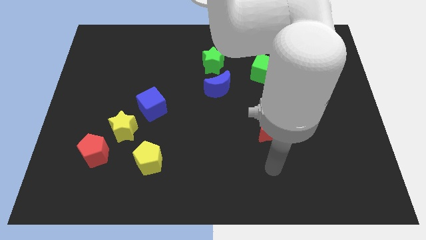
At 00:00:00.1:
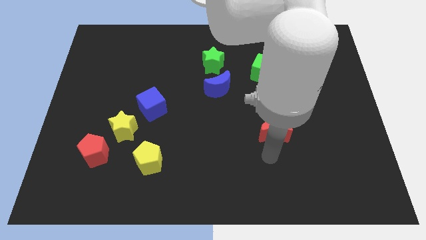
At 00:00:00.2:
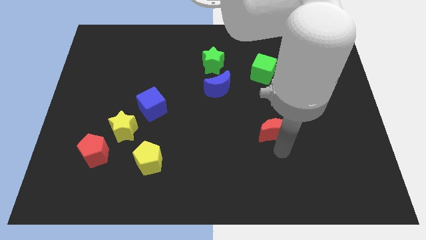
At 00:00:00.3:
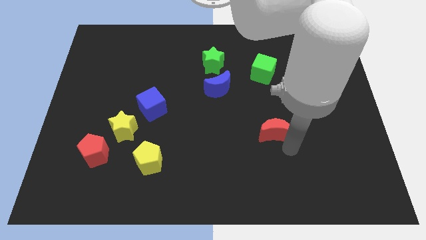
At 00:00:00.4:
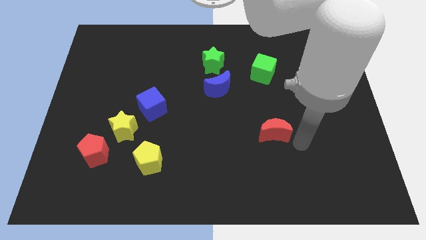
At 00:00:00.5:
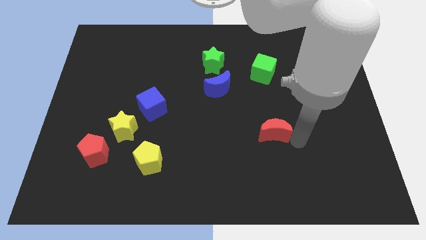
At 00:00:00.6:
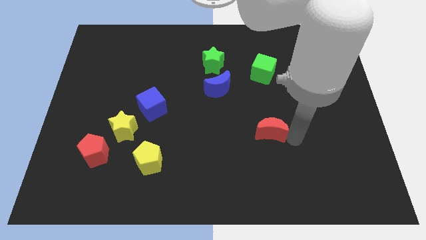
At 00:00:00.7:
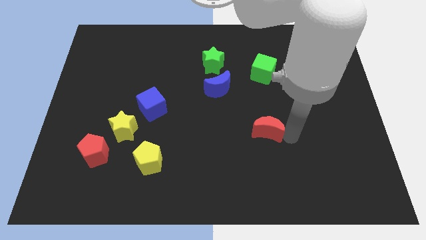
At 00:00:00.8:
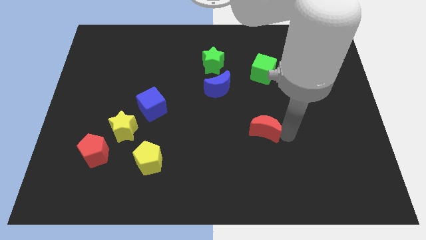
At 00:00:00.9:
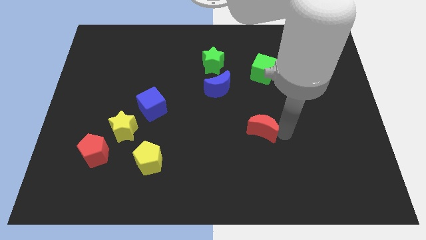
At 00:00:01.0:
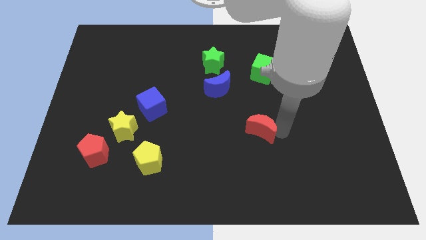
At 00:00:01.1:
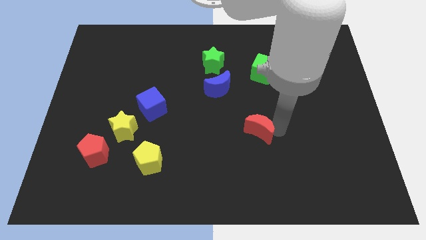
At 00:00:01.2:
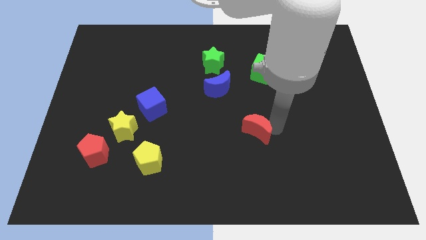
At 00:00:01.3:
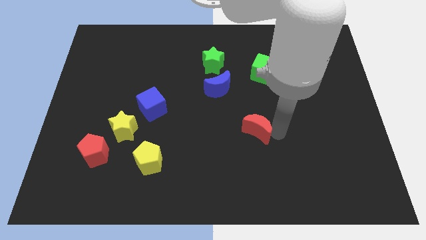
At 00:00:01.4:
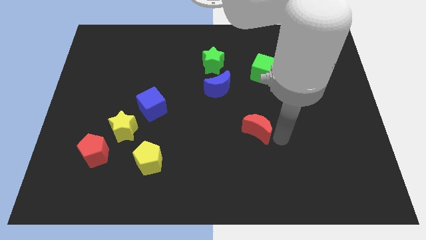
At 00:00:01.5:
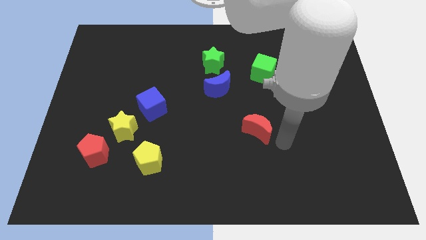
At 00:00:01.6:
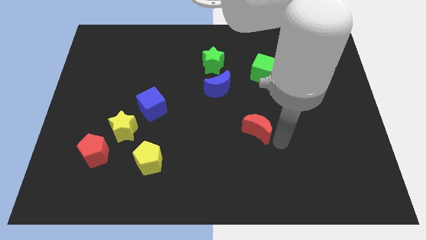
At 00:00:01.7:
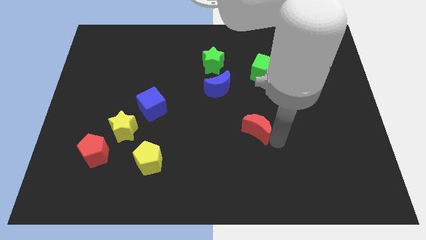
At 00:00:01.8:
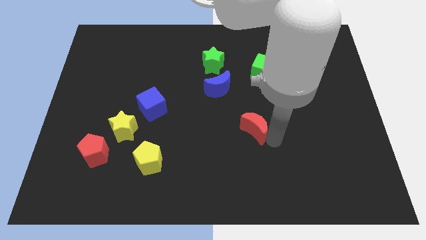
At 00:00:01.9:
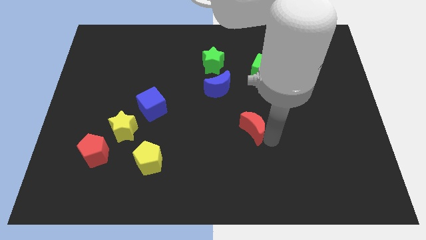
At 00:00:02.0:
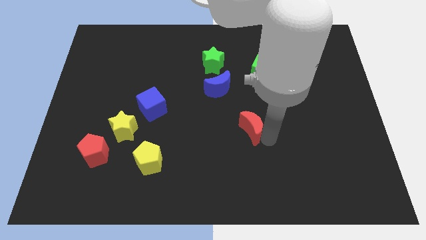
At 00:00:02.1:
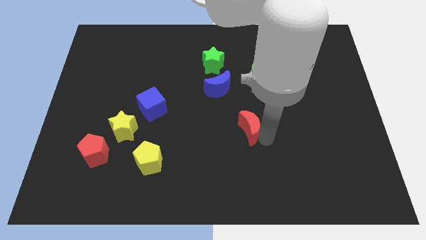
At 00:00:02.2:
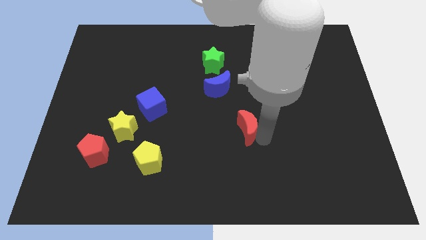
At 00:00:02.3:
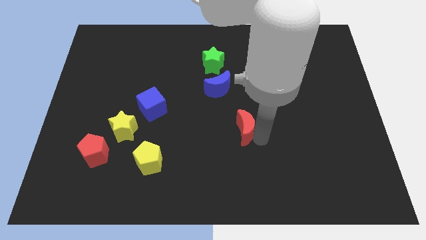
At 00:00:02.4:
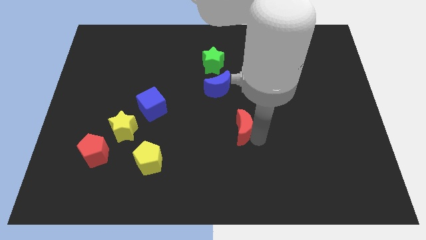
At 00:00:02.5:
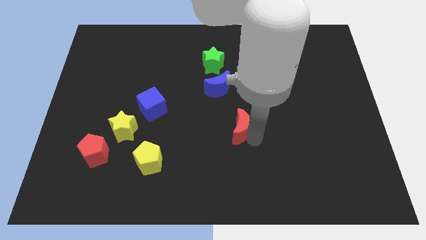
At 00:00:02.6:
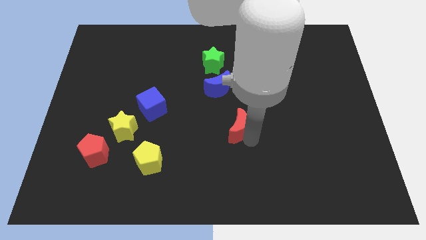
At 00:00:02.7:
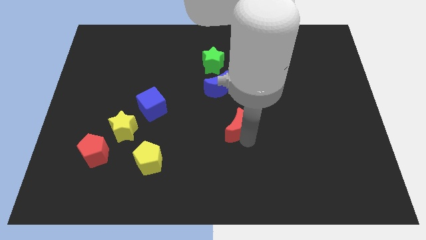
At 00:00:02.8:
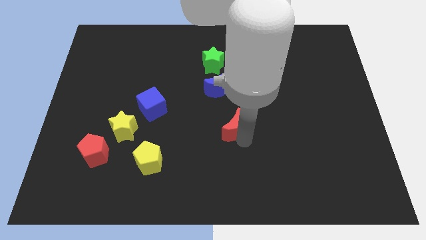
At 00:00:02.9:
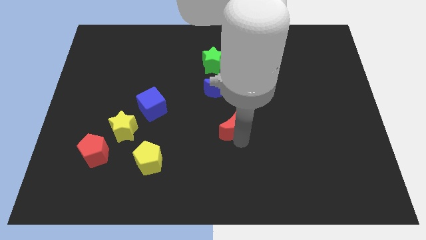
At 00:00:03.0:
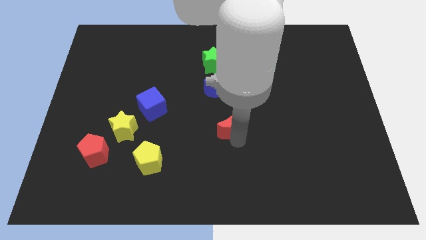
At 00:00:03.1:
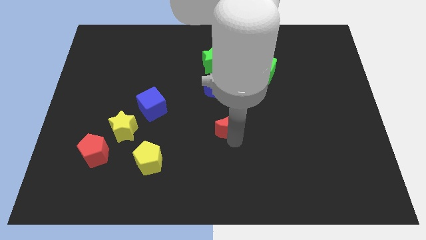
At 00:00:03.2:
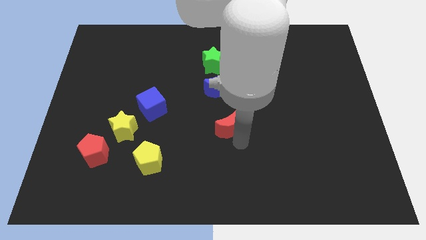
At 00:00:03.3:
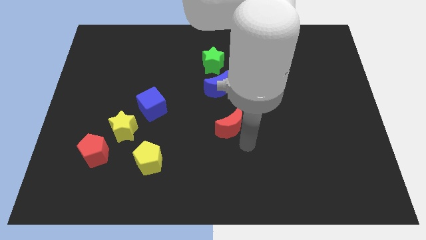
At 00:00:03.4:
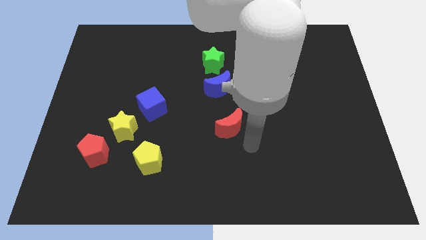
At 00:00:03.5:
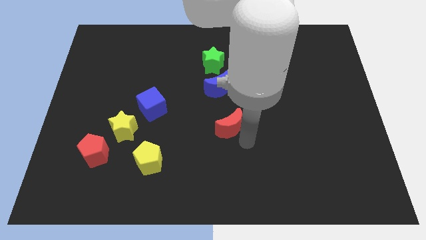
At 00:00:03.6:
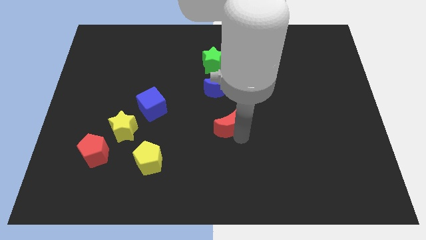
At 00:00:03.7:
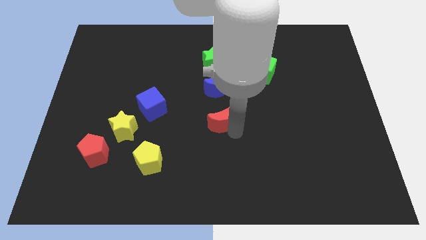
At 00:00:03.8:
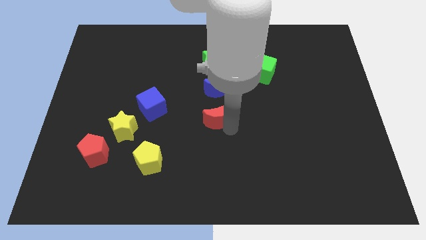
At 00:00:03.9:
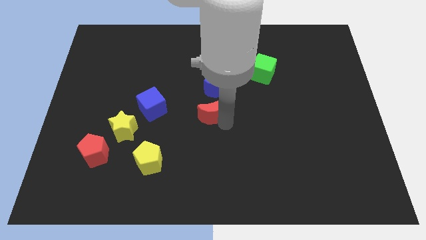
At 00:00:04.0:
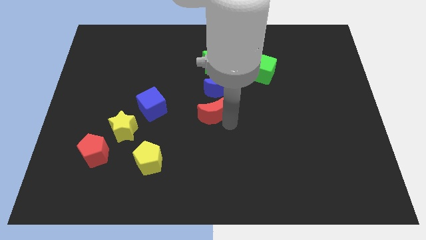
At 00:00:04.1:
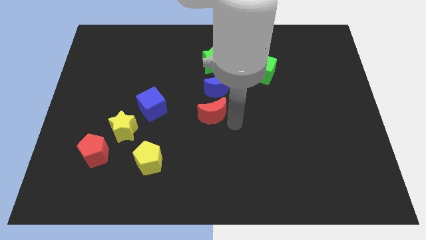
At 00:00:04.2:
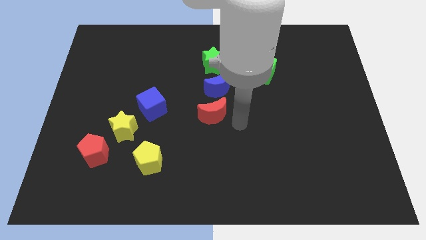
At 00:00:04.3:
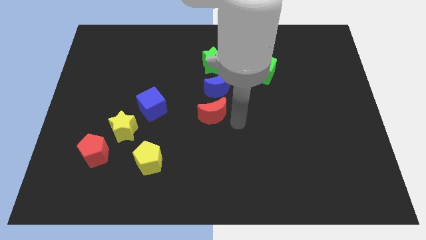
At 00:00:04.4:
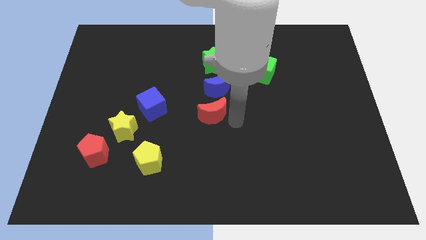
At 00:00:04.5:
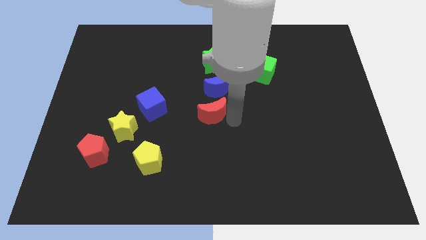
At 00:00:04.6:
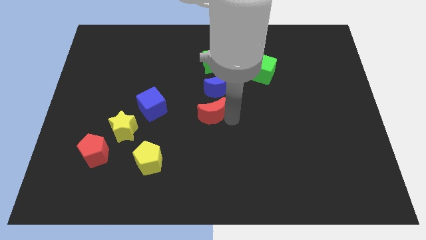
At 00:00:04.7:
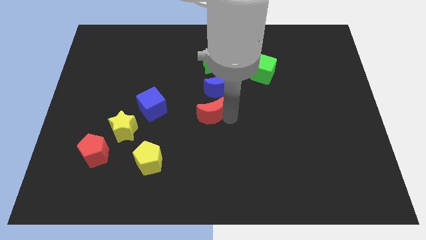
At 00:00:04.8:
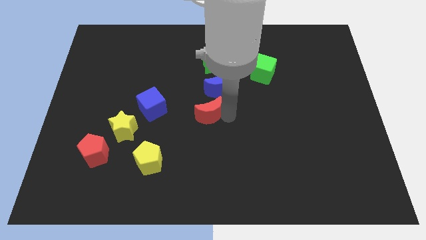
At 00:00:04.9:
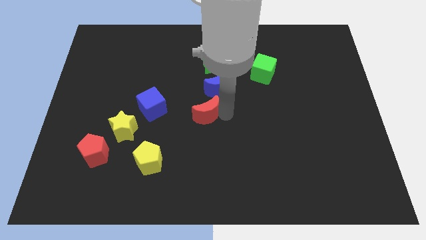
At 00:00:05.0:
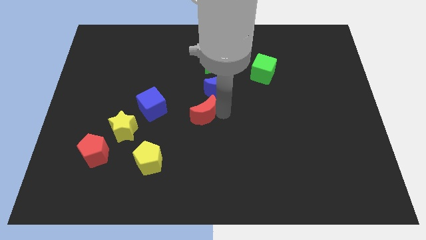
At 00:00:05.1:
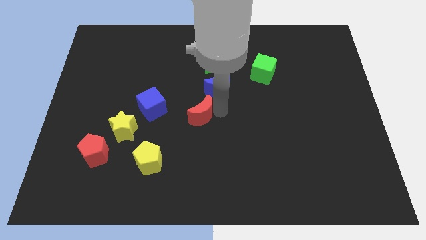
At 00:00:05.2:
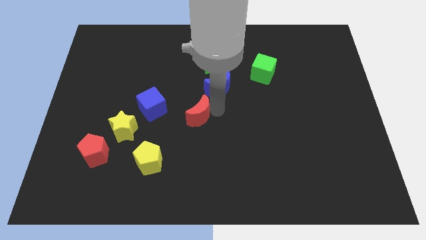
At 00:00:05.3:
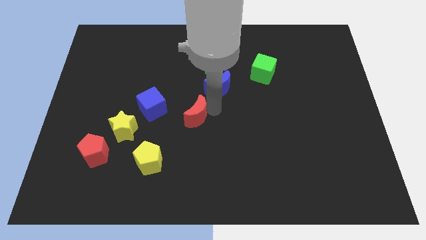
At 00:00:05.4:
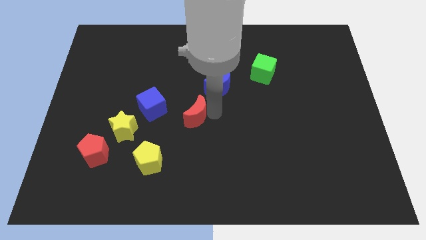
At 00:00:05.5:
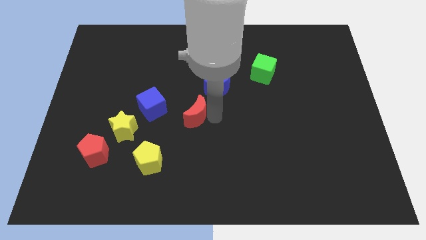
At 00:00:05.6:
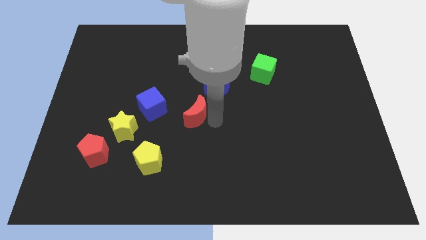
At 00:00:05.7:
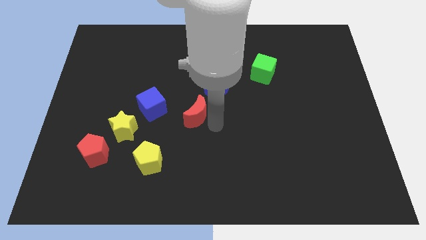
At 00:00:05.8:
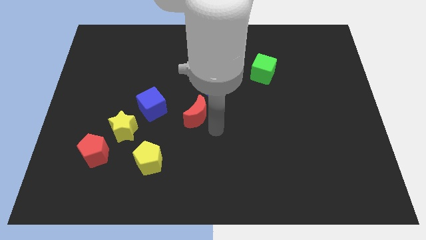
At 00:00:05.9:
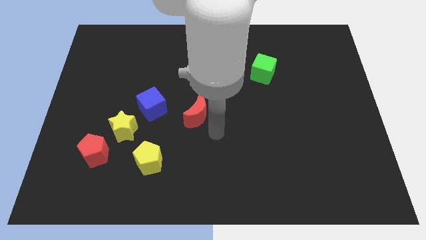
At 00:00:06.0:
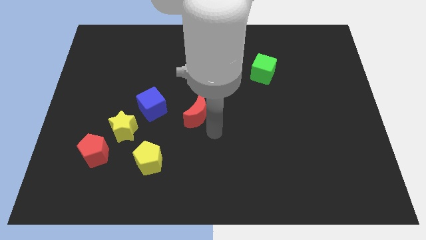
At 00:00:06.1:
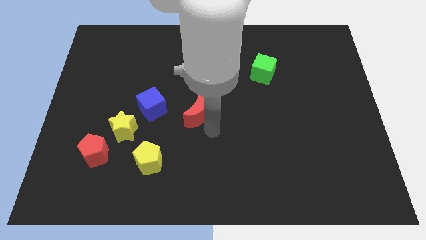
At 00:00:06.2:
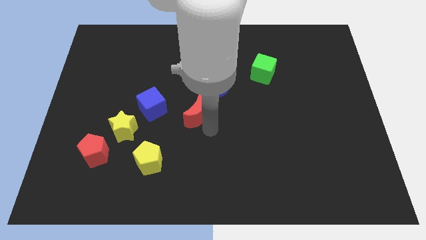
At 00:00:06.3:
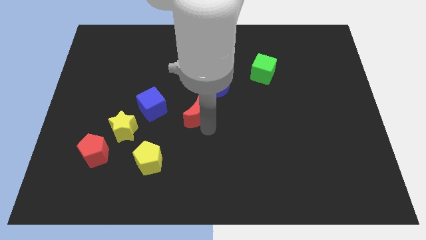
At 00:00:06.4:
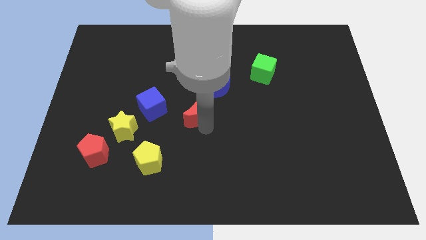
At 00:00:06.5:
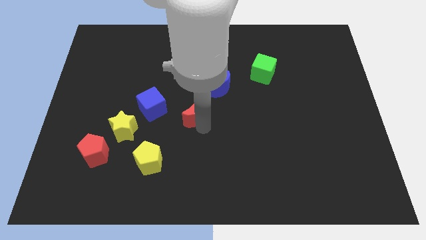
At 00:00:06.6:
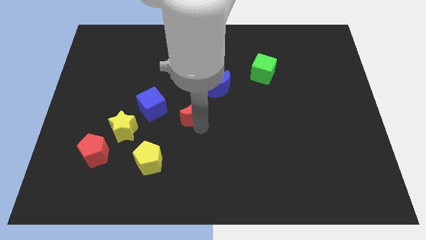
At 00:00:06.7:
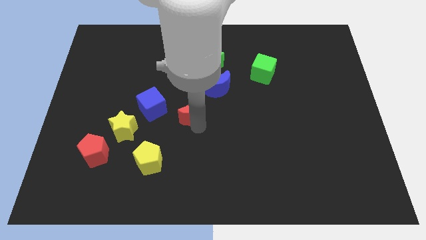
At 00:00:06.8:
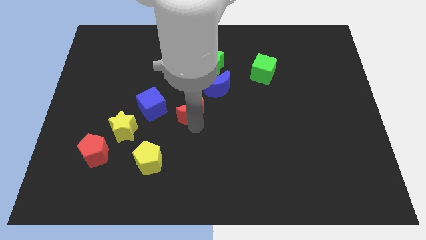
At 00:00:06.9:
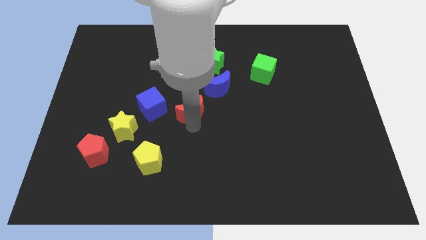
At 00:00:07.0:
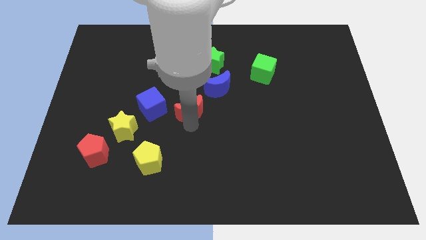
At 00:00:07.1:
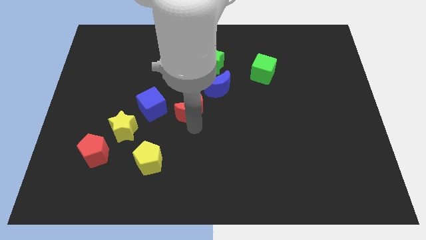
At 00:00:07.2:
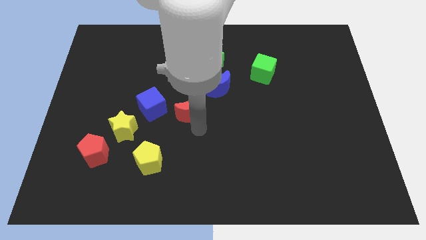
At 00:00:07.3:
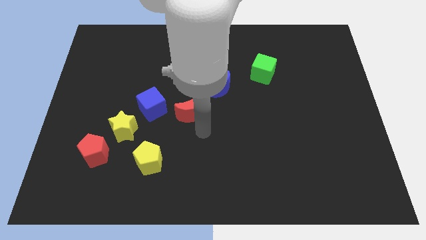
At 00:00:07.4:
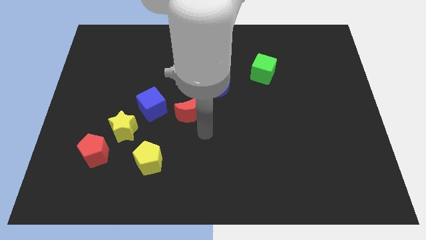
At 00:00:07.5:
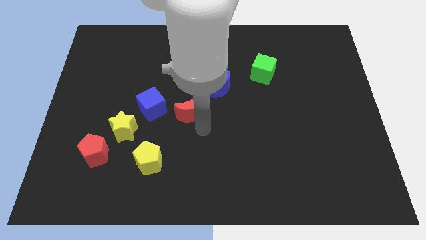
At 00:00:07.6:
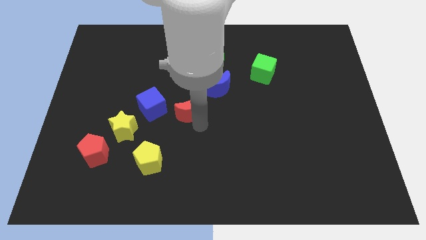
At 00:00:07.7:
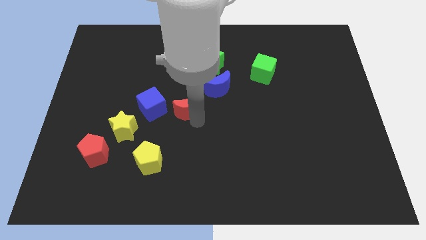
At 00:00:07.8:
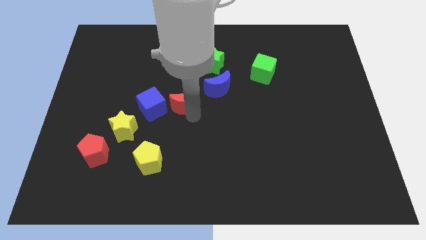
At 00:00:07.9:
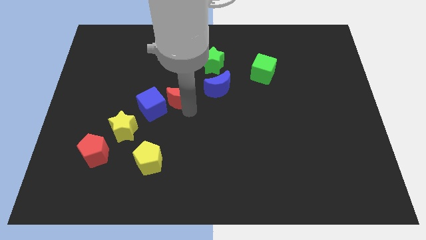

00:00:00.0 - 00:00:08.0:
put the red moon to the top right side of the blue cube
